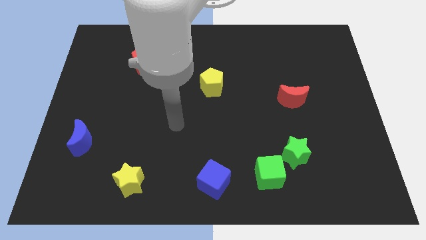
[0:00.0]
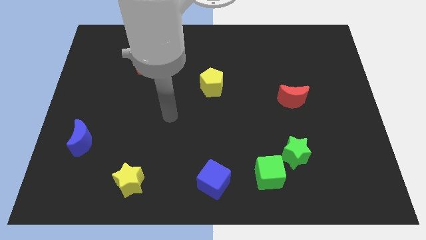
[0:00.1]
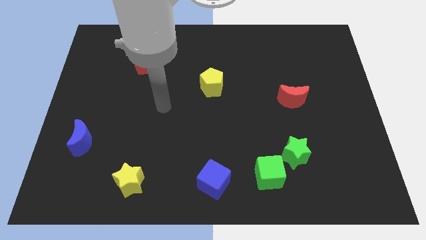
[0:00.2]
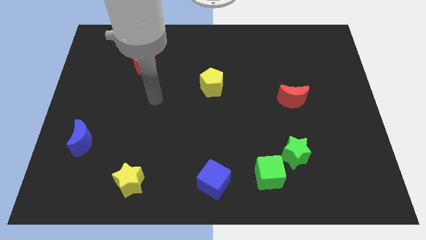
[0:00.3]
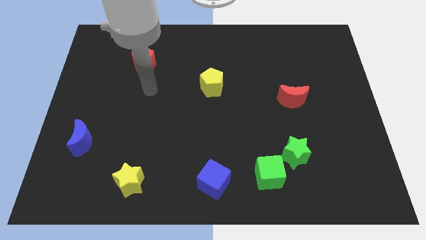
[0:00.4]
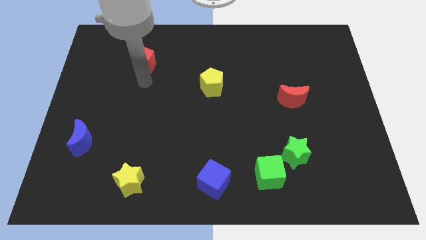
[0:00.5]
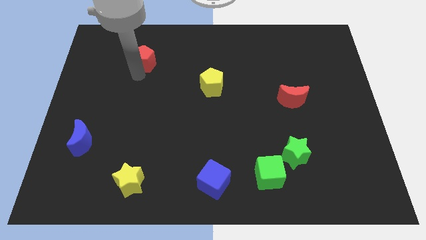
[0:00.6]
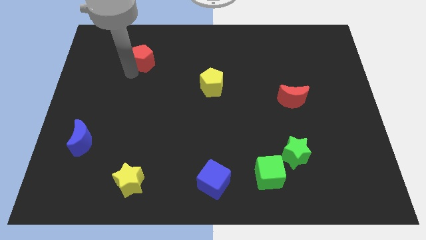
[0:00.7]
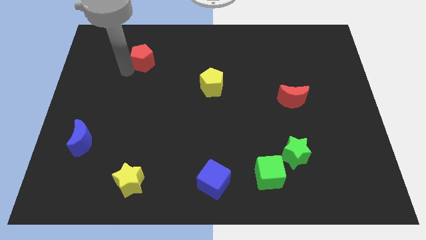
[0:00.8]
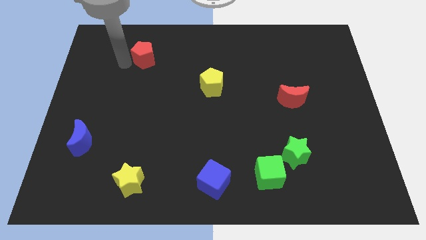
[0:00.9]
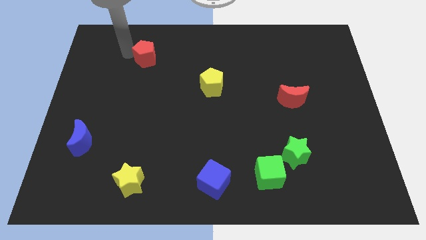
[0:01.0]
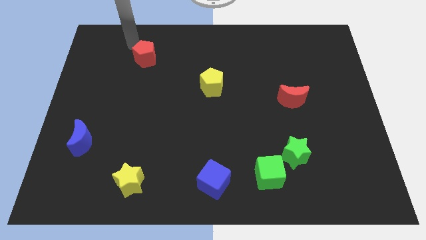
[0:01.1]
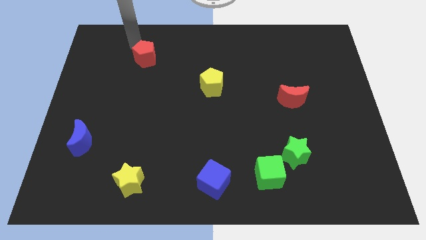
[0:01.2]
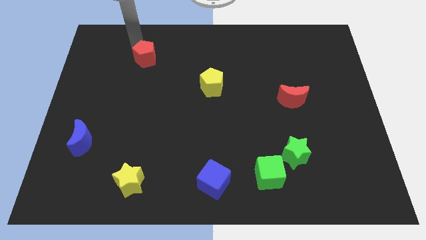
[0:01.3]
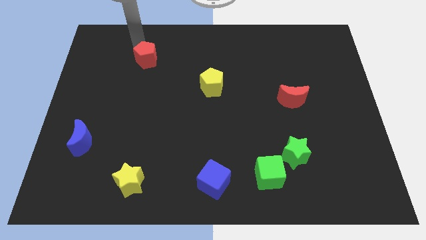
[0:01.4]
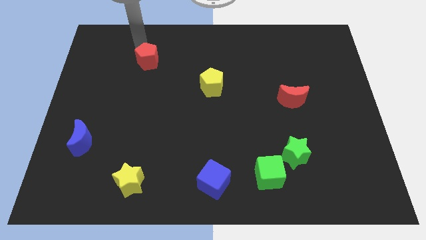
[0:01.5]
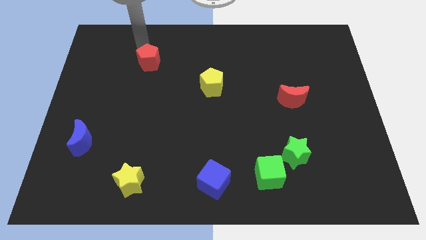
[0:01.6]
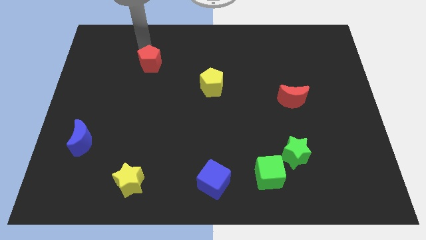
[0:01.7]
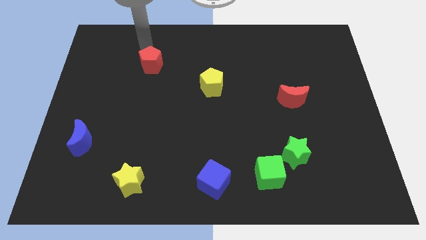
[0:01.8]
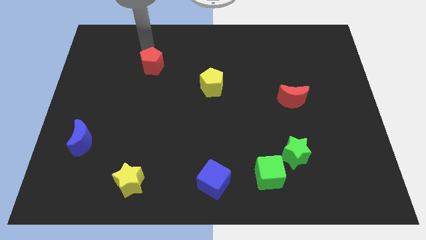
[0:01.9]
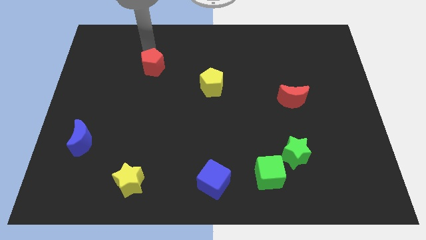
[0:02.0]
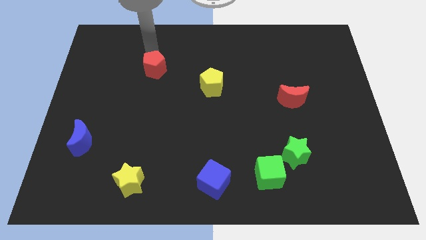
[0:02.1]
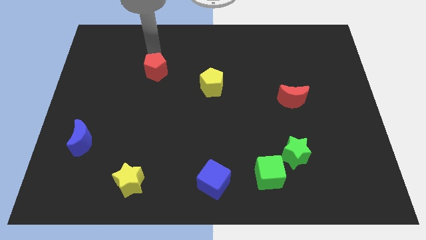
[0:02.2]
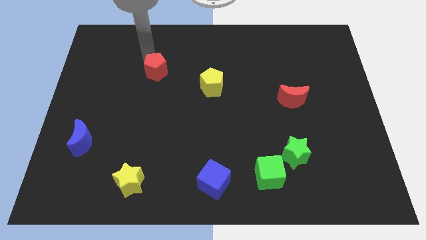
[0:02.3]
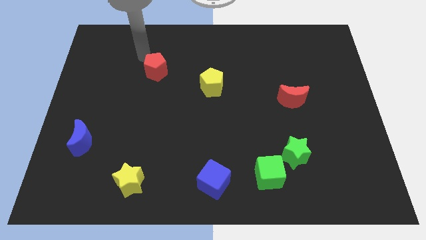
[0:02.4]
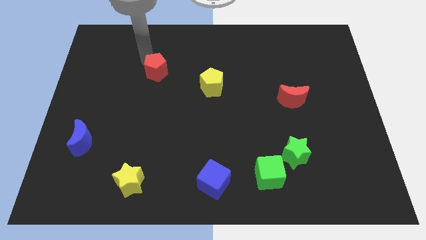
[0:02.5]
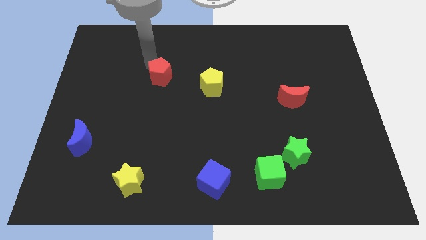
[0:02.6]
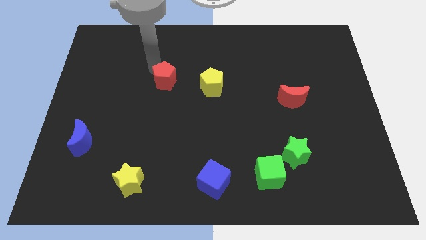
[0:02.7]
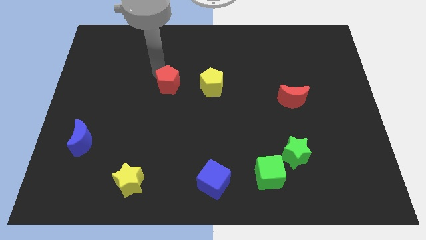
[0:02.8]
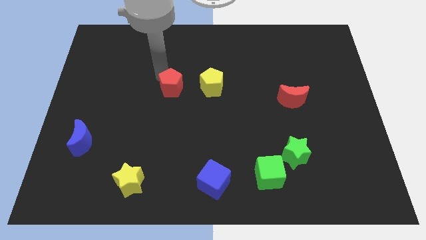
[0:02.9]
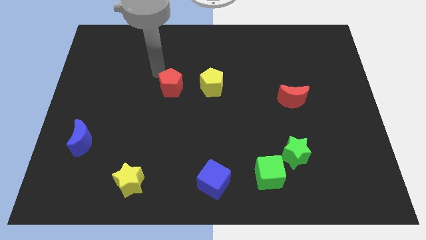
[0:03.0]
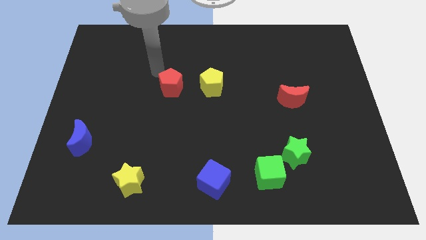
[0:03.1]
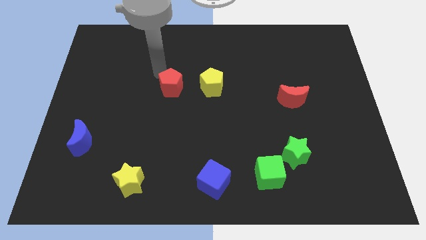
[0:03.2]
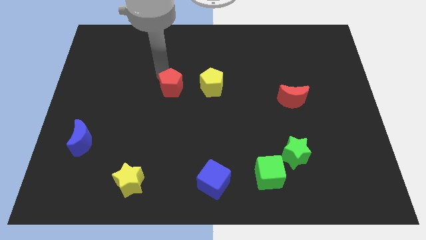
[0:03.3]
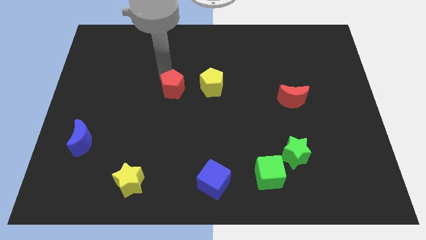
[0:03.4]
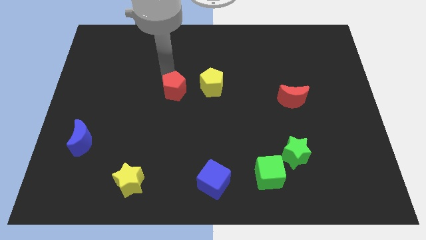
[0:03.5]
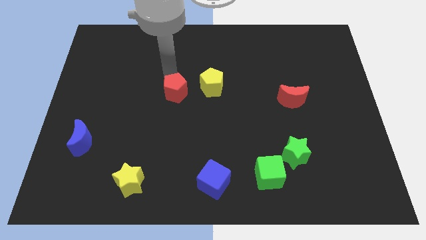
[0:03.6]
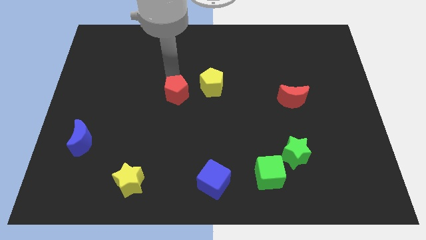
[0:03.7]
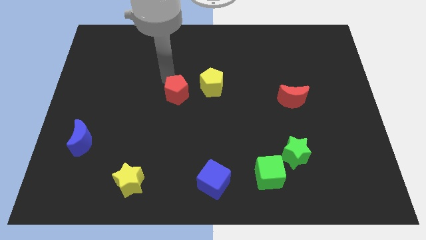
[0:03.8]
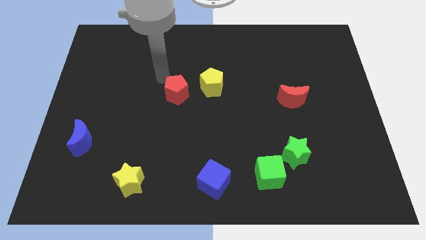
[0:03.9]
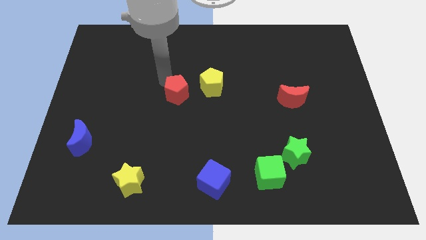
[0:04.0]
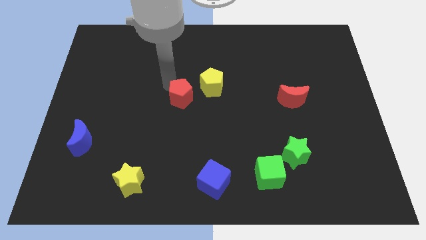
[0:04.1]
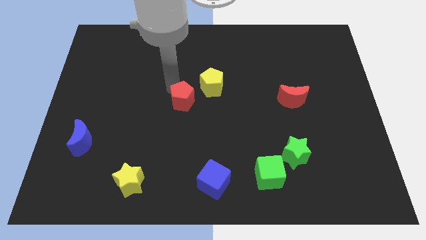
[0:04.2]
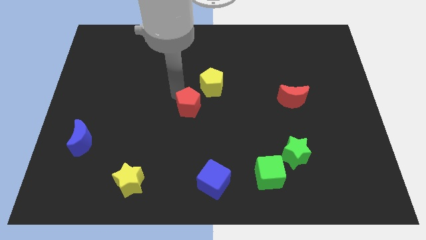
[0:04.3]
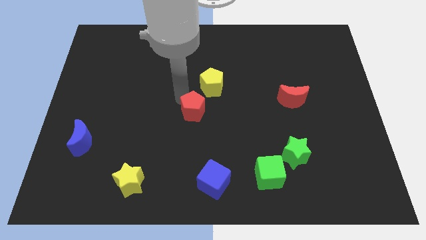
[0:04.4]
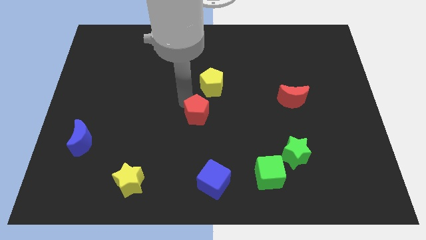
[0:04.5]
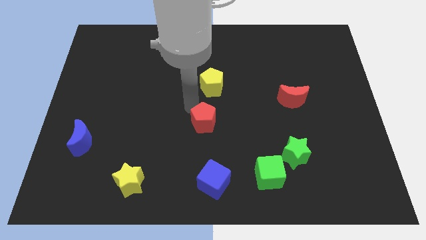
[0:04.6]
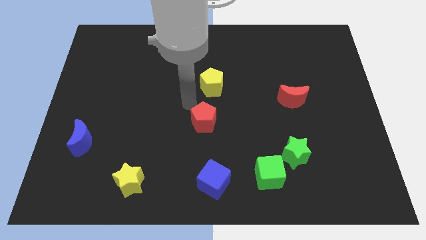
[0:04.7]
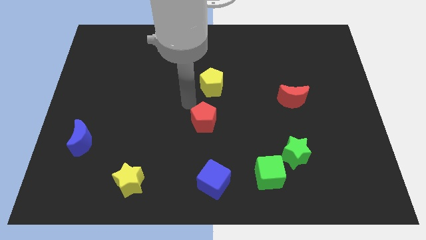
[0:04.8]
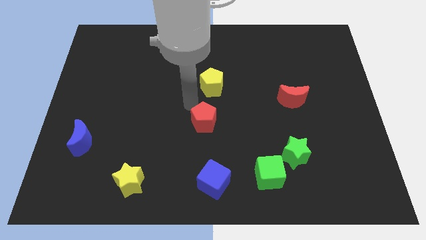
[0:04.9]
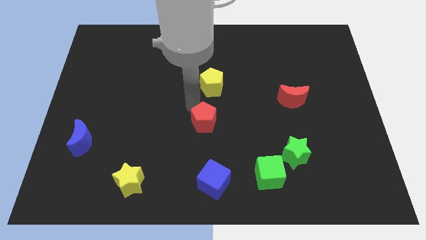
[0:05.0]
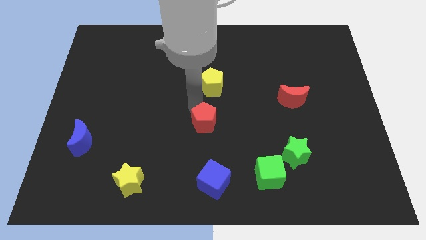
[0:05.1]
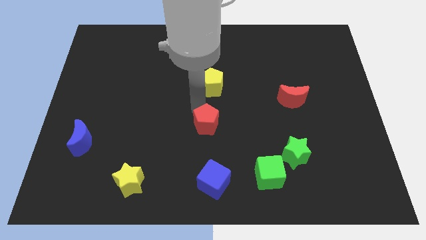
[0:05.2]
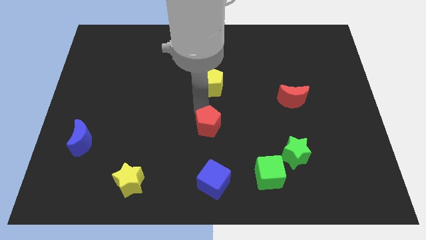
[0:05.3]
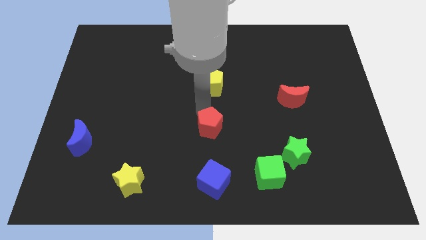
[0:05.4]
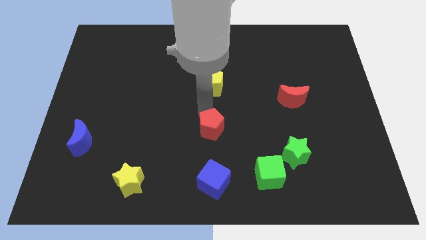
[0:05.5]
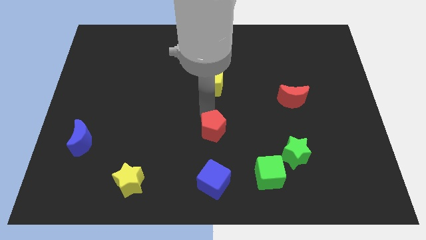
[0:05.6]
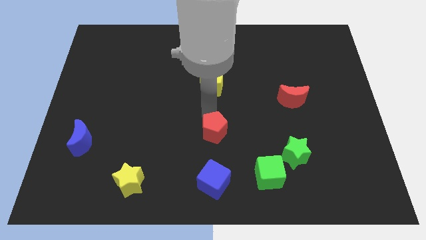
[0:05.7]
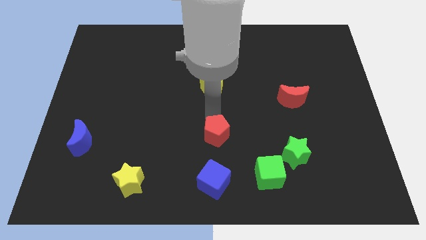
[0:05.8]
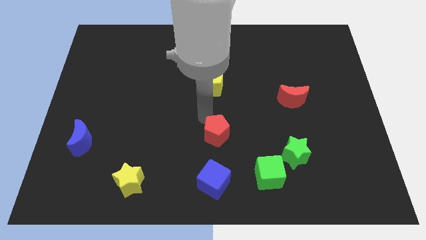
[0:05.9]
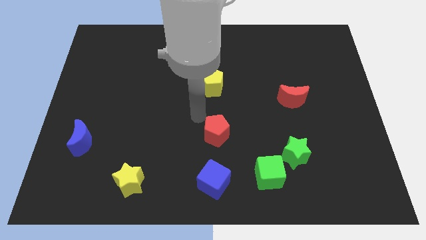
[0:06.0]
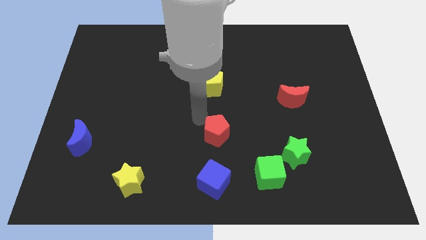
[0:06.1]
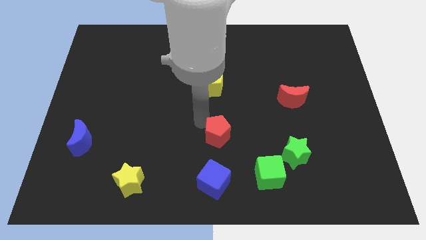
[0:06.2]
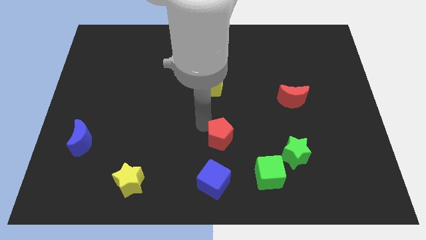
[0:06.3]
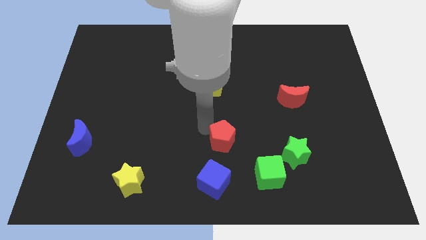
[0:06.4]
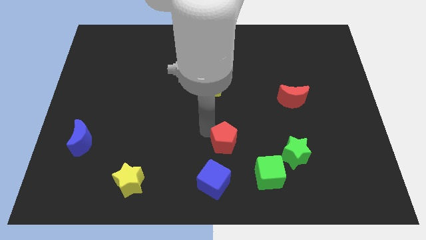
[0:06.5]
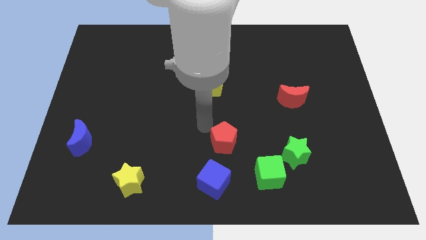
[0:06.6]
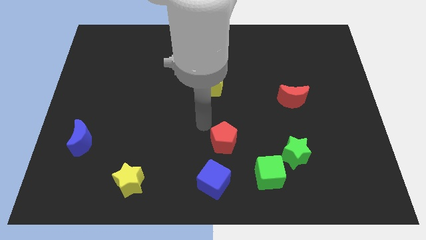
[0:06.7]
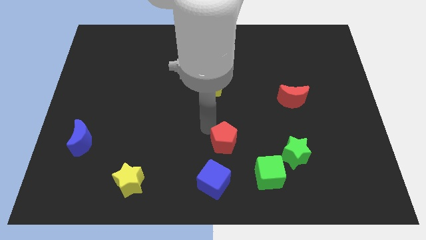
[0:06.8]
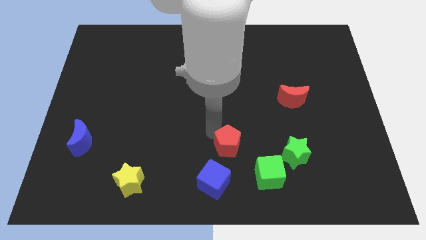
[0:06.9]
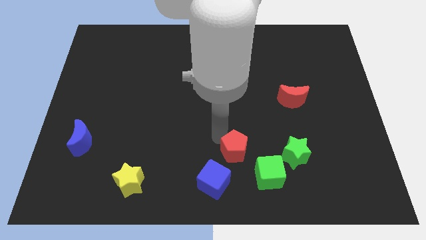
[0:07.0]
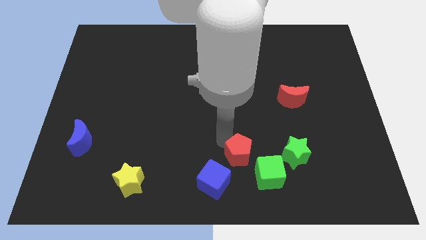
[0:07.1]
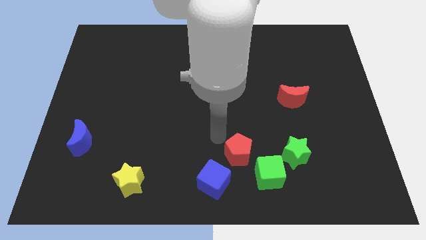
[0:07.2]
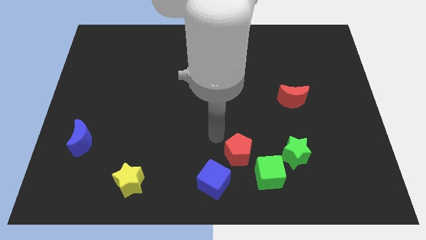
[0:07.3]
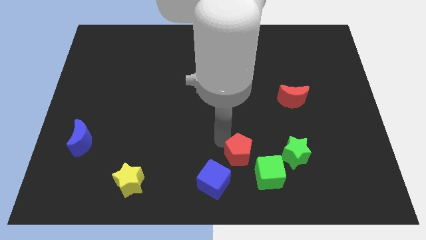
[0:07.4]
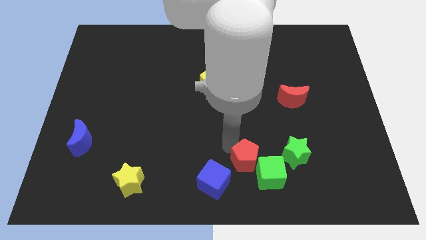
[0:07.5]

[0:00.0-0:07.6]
slide the red pentagon to the green cube
